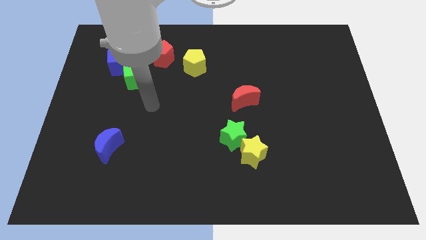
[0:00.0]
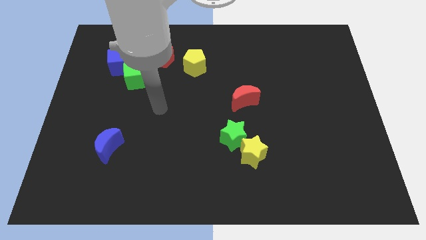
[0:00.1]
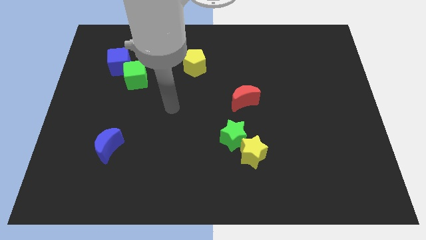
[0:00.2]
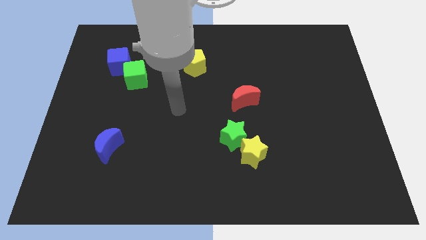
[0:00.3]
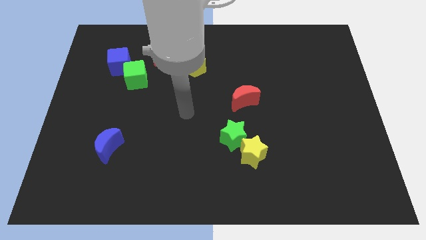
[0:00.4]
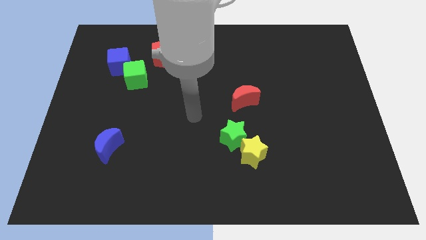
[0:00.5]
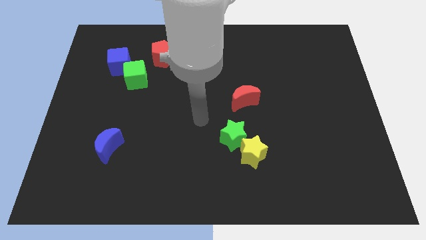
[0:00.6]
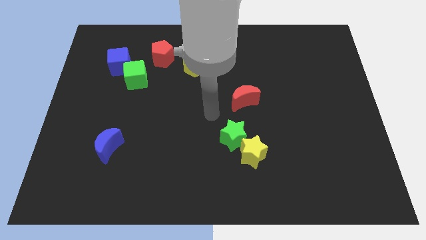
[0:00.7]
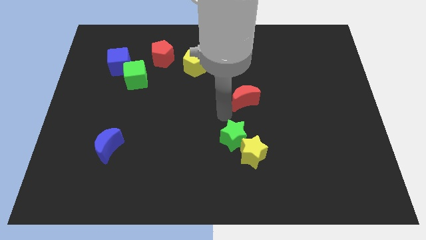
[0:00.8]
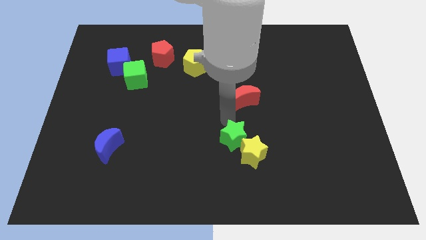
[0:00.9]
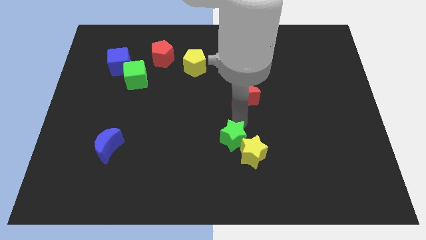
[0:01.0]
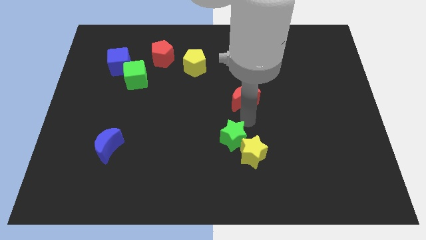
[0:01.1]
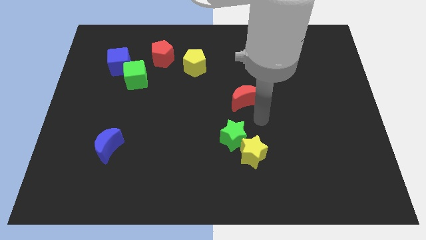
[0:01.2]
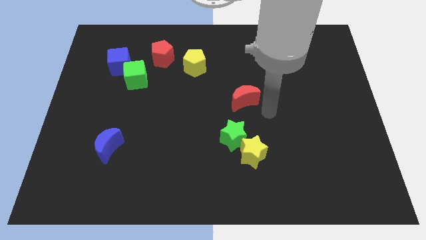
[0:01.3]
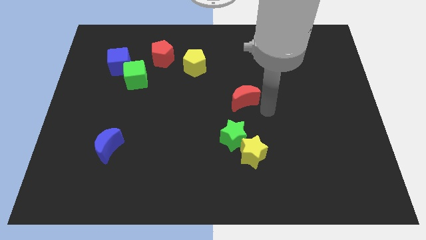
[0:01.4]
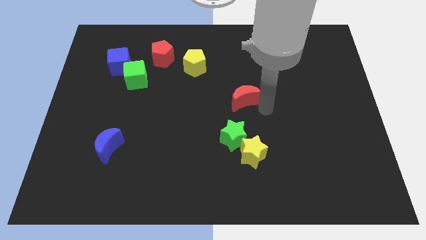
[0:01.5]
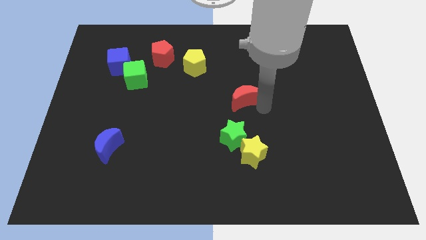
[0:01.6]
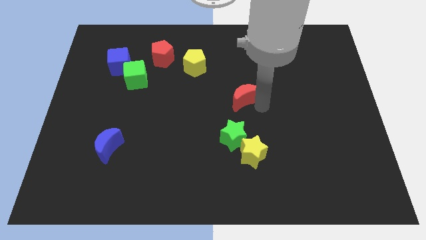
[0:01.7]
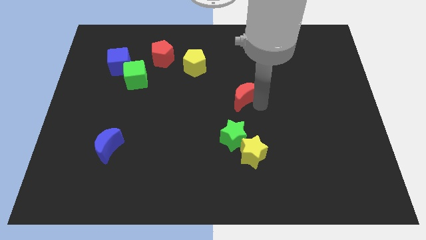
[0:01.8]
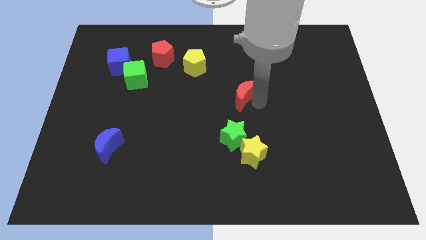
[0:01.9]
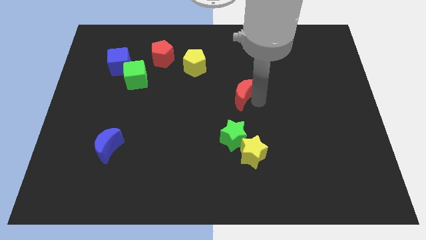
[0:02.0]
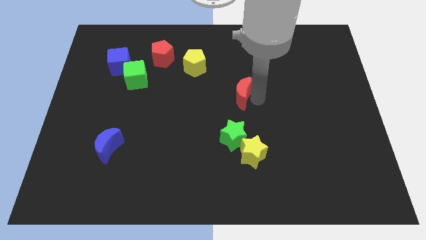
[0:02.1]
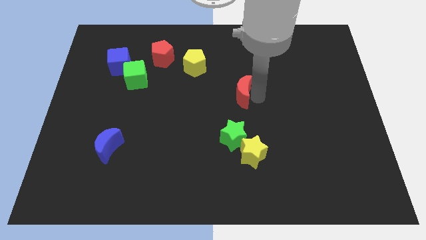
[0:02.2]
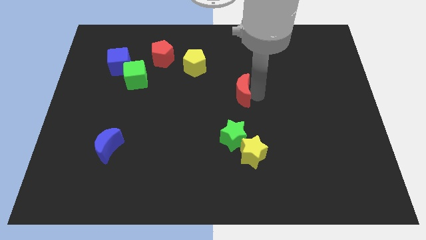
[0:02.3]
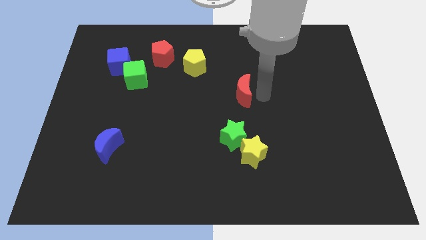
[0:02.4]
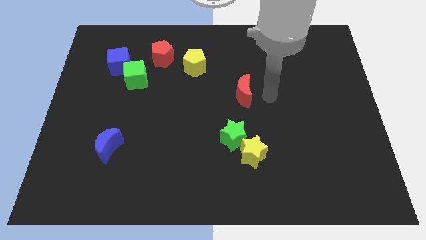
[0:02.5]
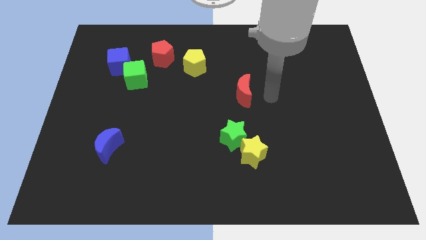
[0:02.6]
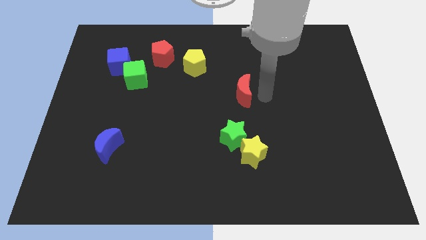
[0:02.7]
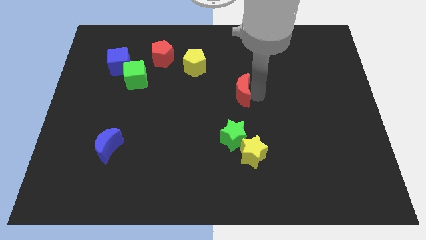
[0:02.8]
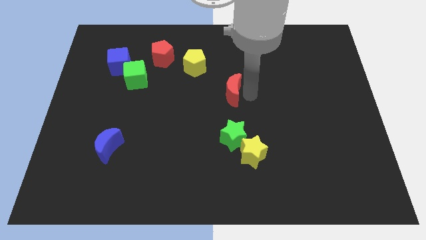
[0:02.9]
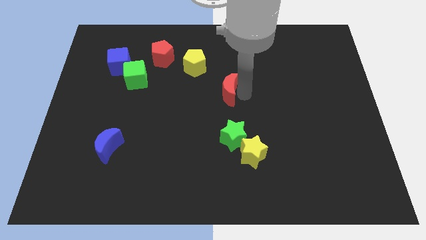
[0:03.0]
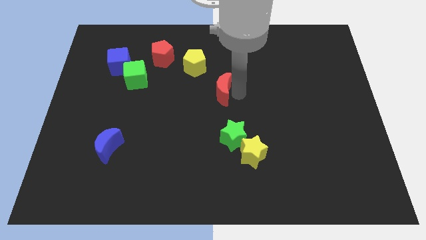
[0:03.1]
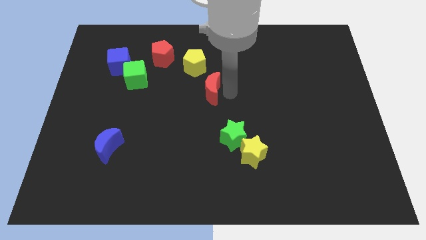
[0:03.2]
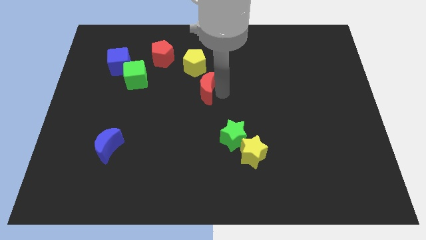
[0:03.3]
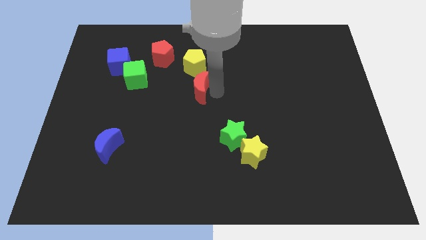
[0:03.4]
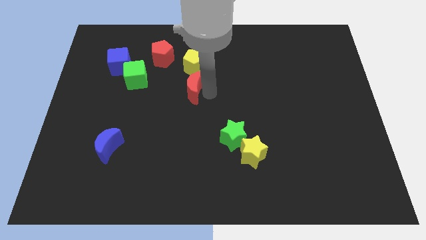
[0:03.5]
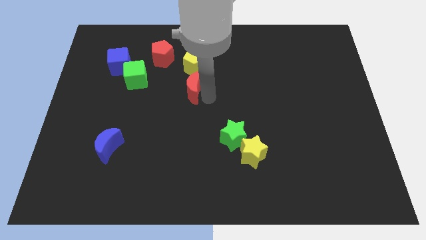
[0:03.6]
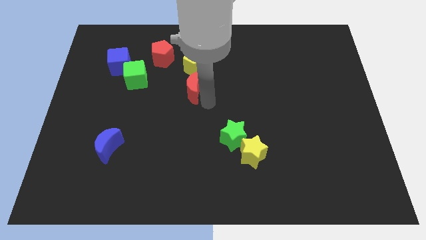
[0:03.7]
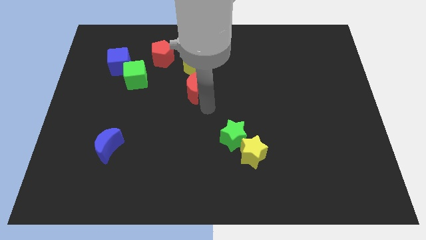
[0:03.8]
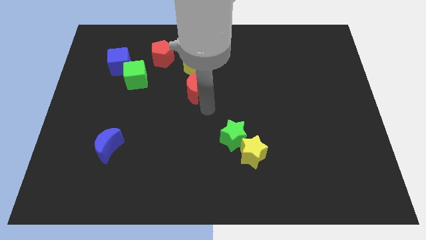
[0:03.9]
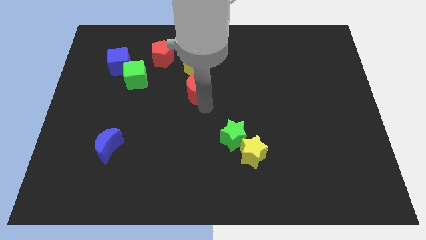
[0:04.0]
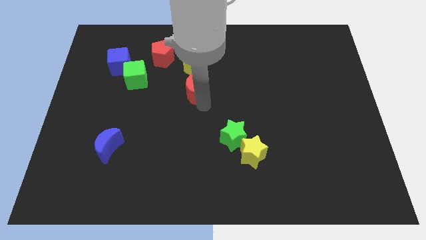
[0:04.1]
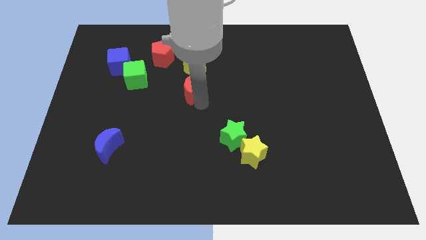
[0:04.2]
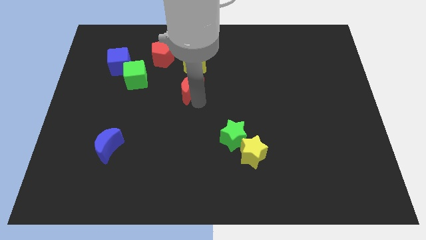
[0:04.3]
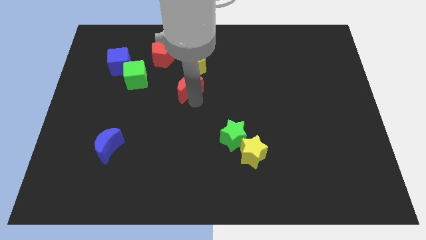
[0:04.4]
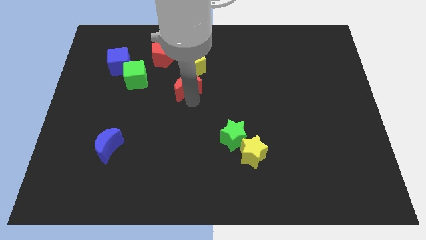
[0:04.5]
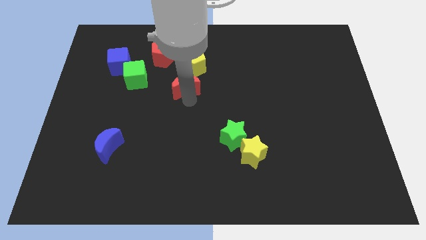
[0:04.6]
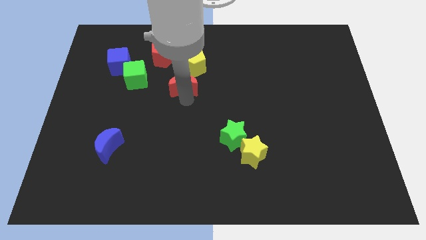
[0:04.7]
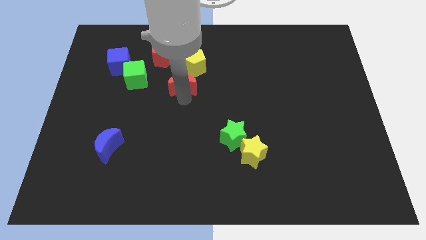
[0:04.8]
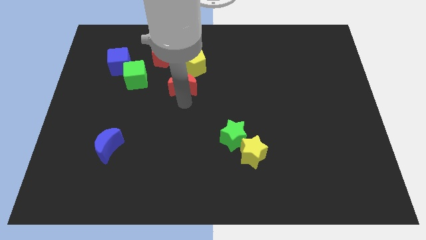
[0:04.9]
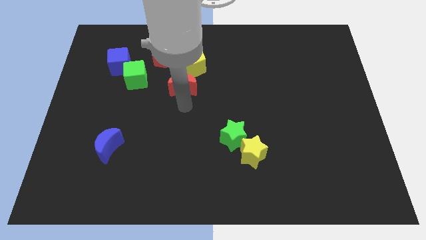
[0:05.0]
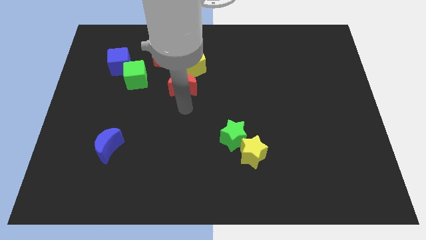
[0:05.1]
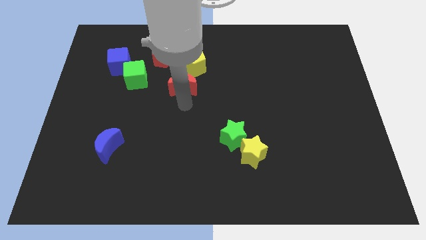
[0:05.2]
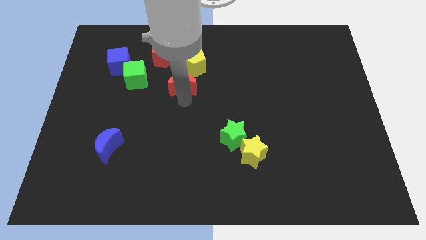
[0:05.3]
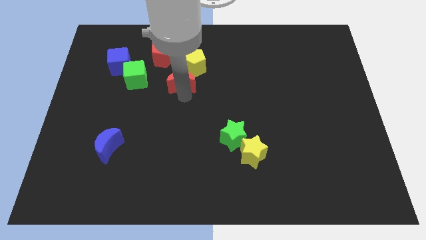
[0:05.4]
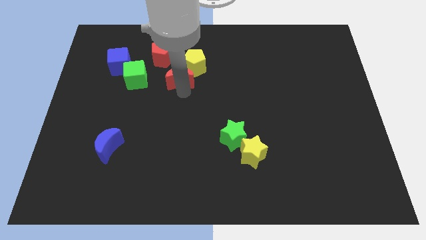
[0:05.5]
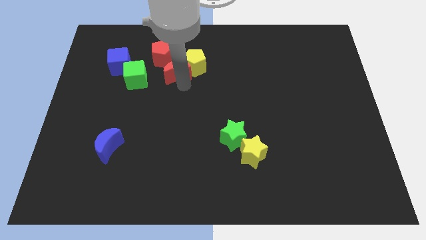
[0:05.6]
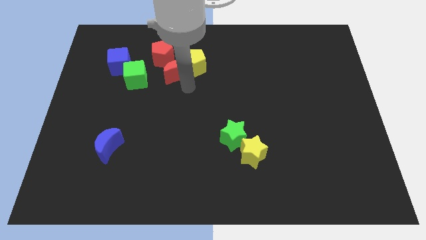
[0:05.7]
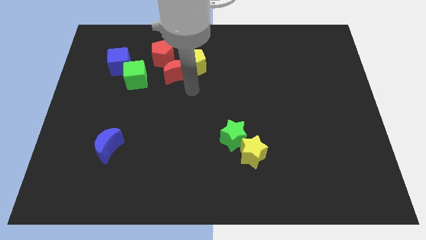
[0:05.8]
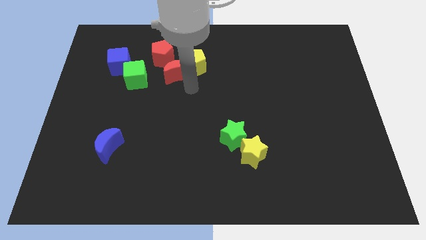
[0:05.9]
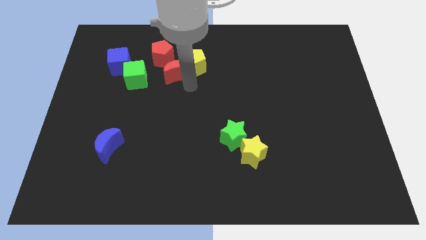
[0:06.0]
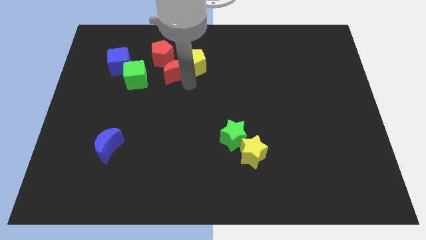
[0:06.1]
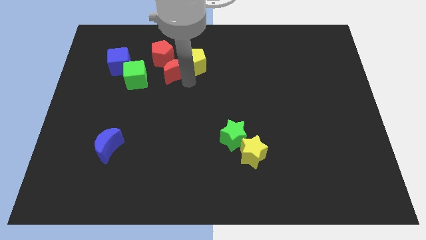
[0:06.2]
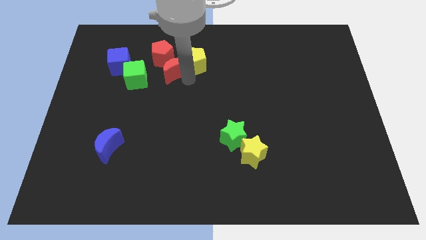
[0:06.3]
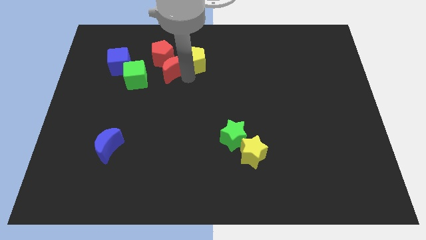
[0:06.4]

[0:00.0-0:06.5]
put the red moon close to the red pentagon
